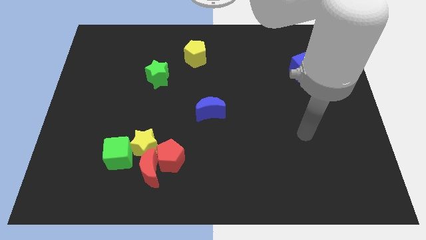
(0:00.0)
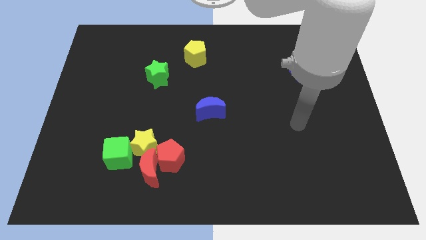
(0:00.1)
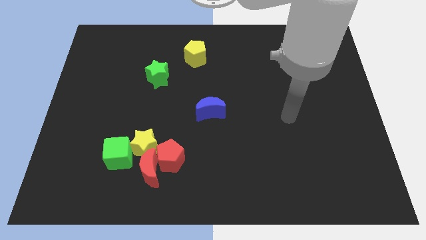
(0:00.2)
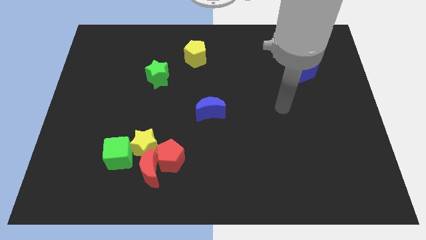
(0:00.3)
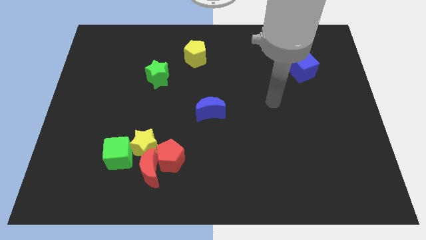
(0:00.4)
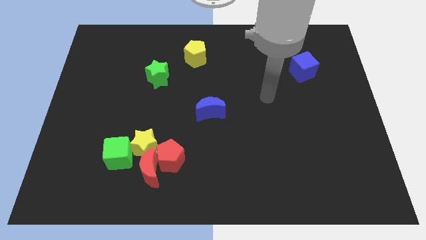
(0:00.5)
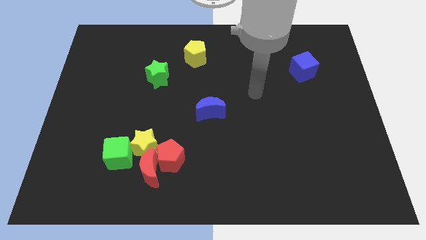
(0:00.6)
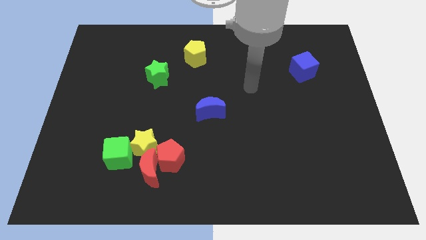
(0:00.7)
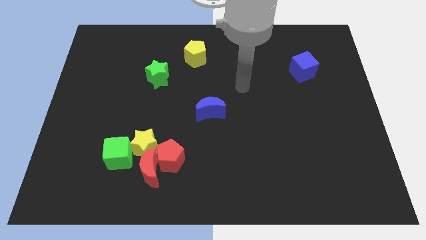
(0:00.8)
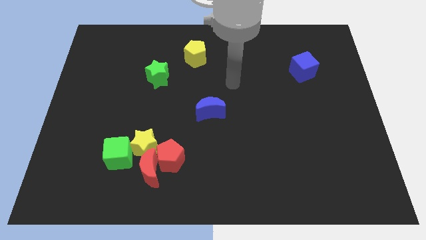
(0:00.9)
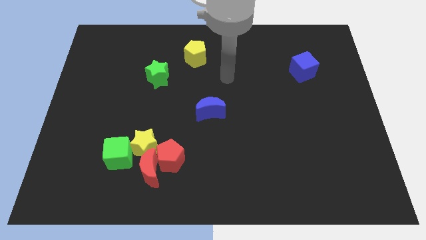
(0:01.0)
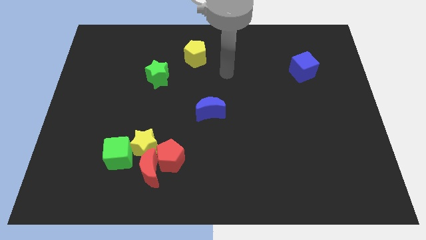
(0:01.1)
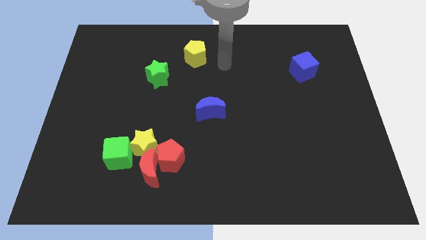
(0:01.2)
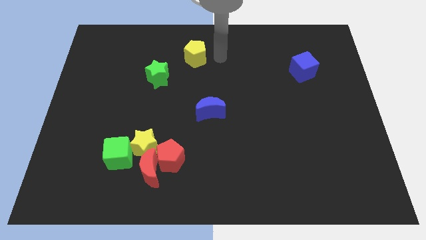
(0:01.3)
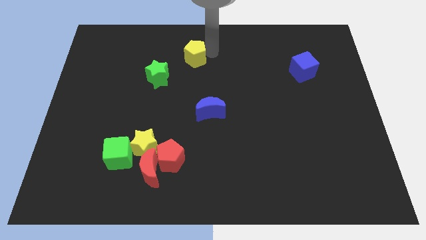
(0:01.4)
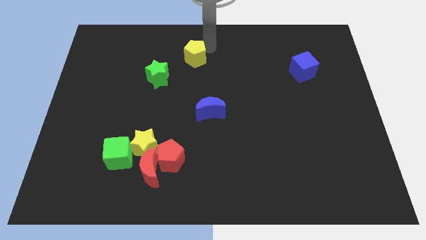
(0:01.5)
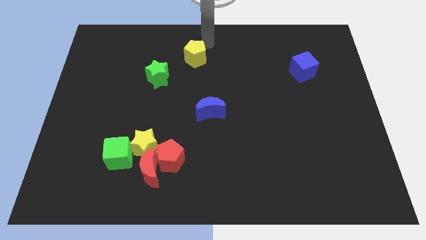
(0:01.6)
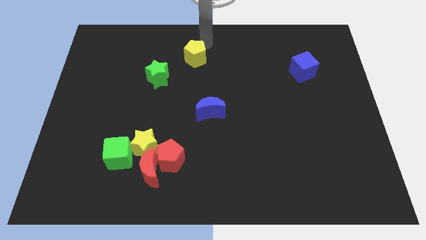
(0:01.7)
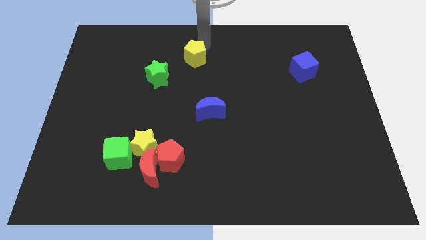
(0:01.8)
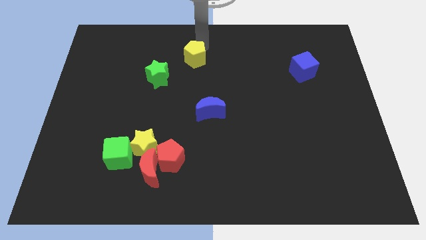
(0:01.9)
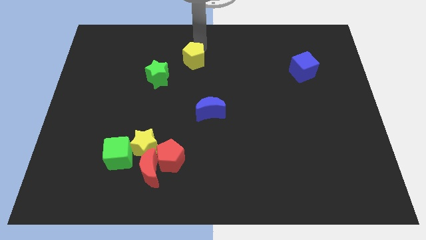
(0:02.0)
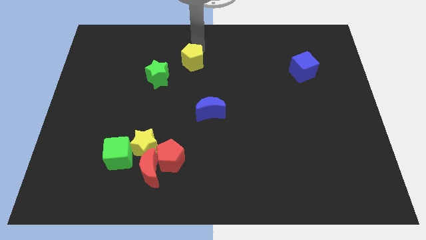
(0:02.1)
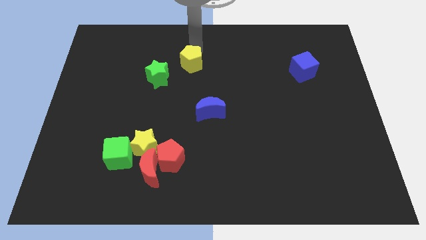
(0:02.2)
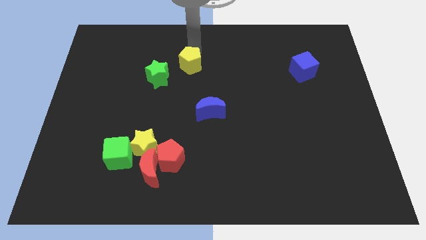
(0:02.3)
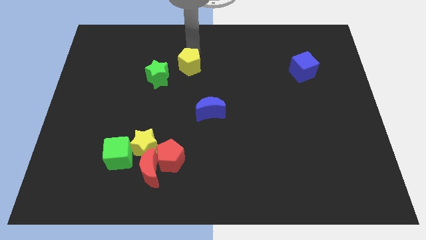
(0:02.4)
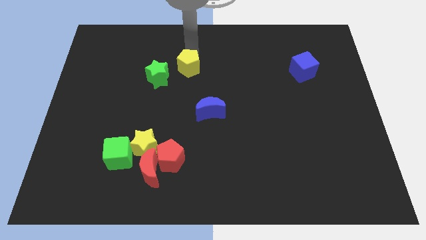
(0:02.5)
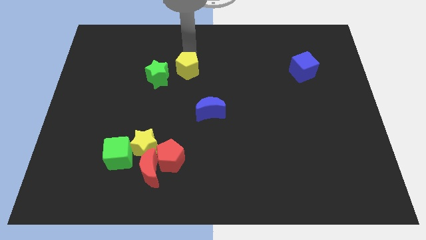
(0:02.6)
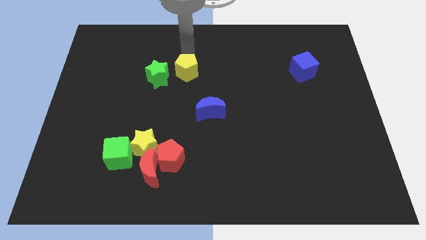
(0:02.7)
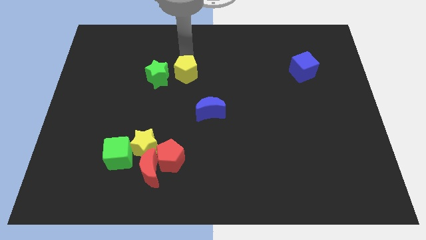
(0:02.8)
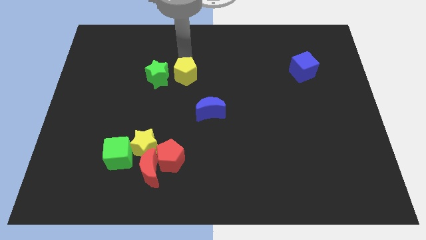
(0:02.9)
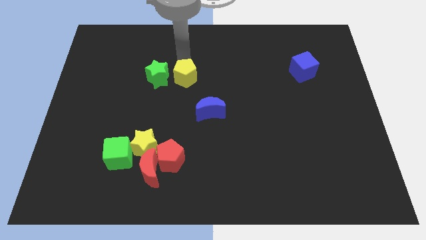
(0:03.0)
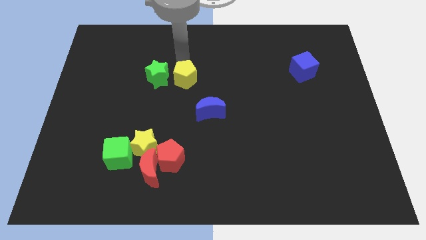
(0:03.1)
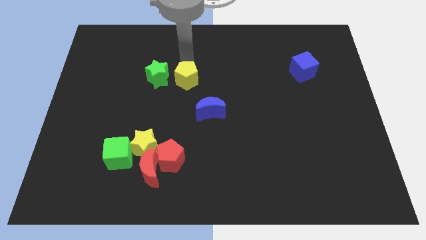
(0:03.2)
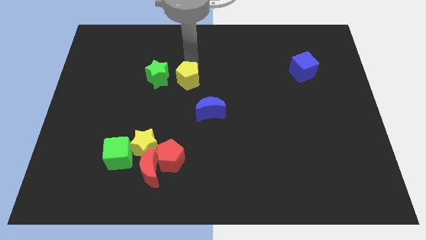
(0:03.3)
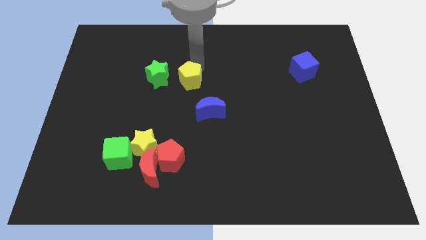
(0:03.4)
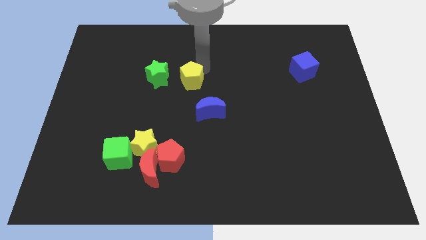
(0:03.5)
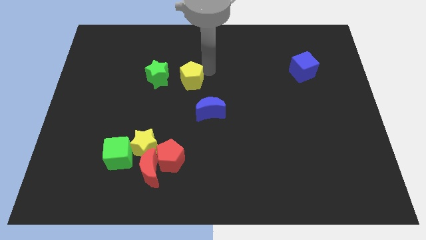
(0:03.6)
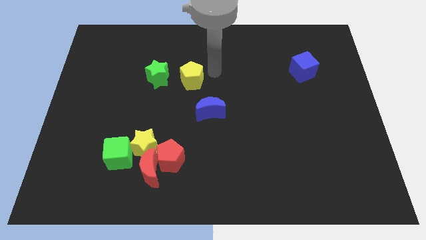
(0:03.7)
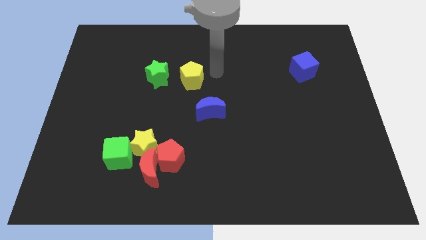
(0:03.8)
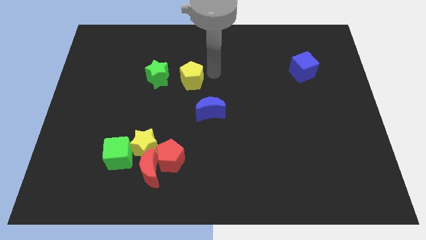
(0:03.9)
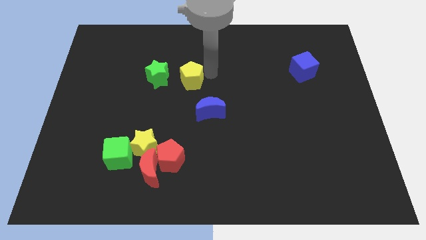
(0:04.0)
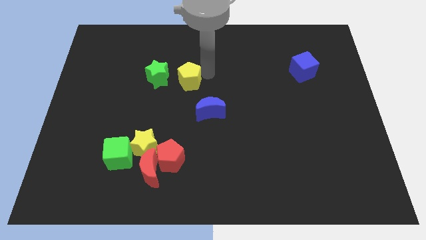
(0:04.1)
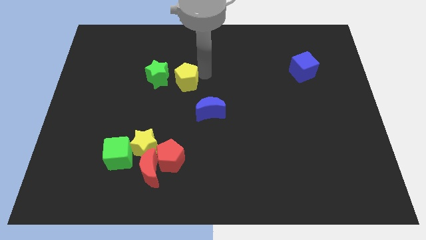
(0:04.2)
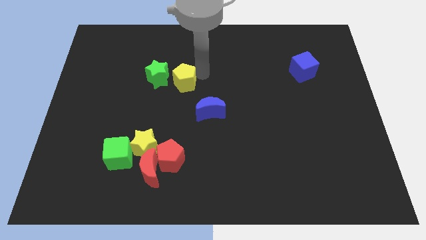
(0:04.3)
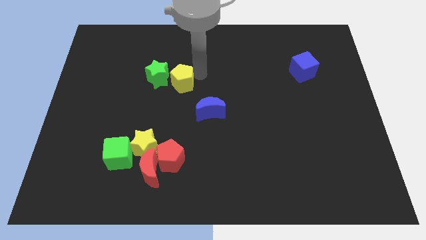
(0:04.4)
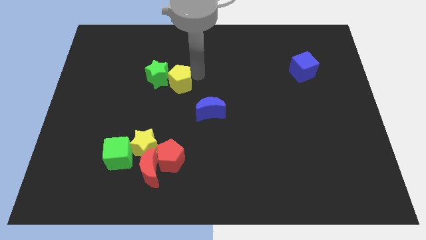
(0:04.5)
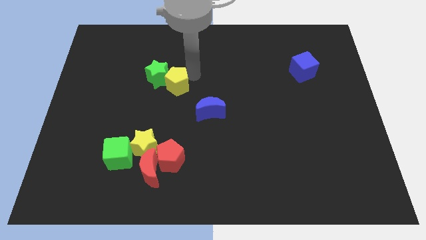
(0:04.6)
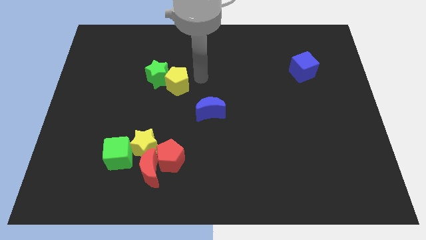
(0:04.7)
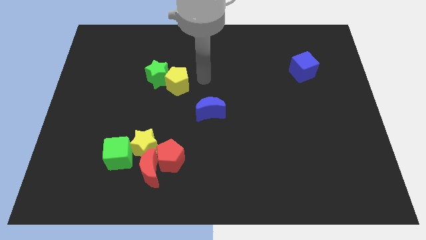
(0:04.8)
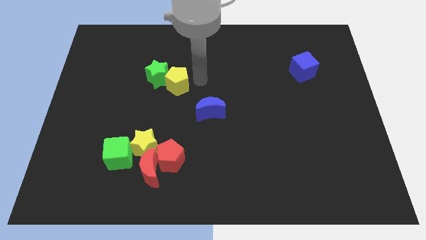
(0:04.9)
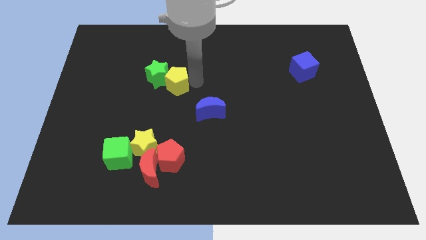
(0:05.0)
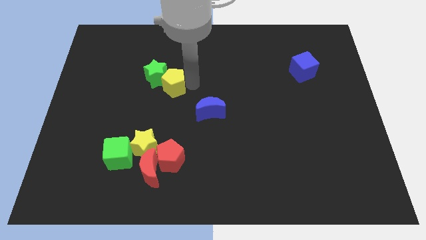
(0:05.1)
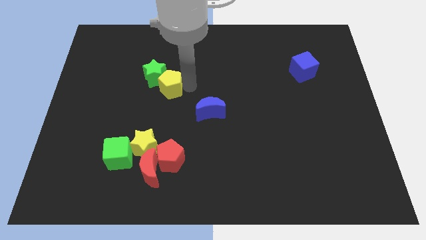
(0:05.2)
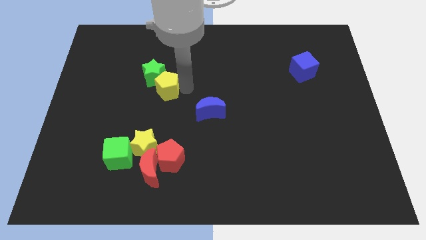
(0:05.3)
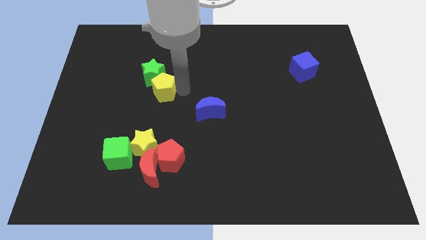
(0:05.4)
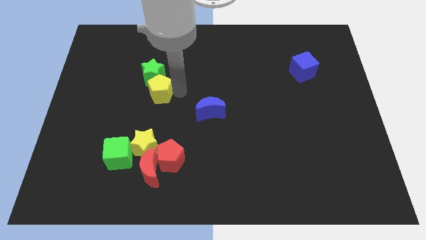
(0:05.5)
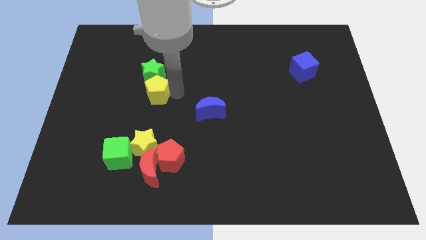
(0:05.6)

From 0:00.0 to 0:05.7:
slide the yellow pentagon to the bottom left side of the green star
